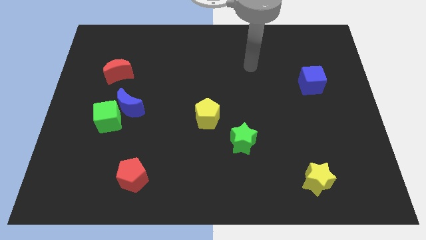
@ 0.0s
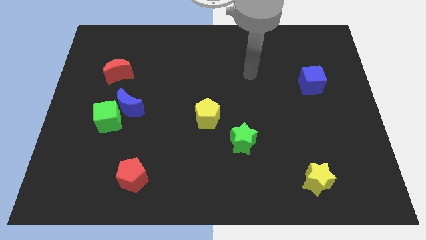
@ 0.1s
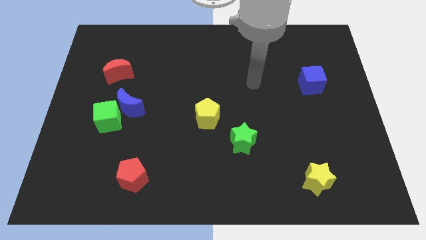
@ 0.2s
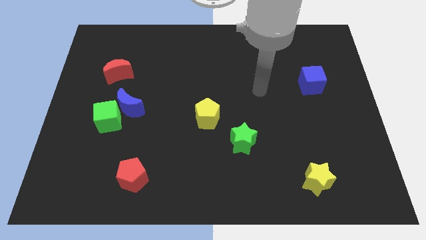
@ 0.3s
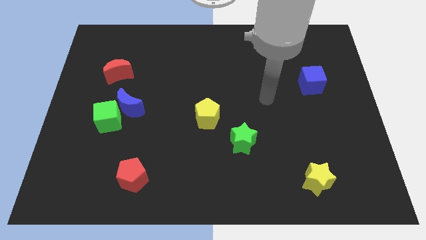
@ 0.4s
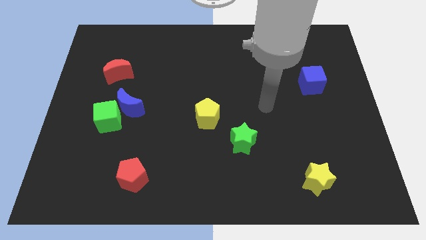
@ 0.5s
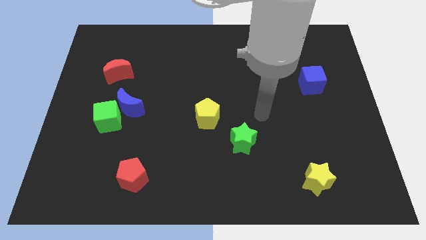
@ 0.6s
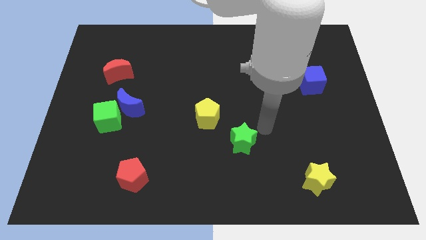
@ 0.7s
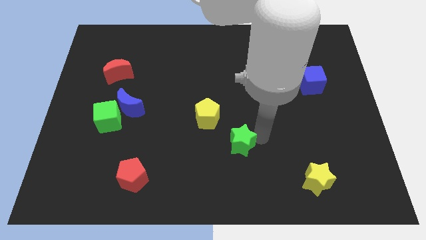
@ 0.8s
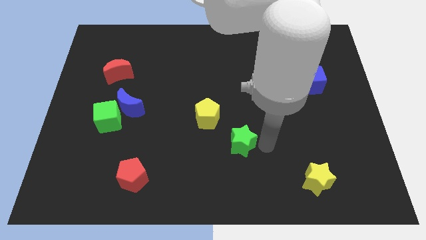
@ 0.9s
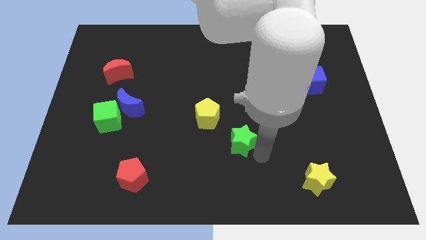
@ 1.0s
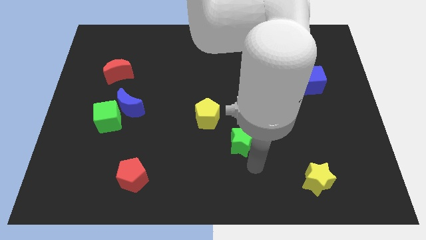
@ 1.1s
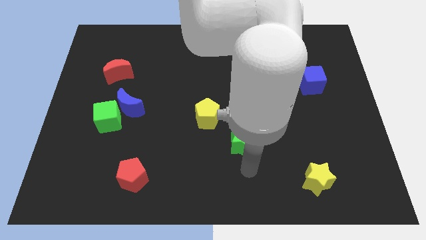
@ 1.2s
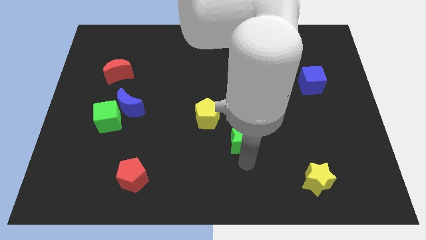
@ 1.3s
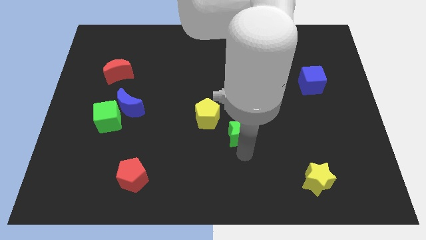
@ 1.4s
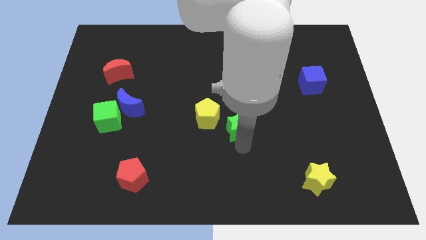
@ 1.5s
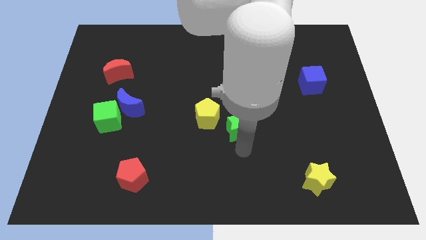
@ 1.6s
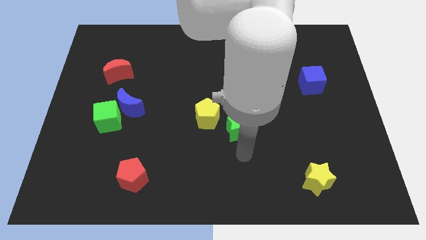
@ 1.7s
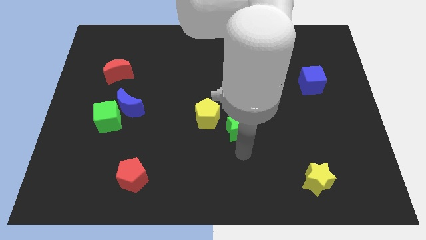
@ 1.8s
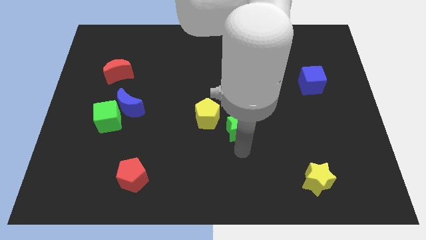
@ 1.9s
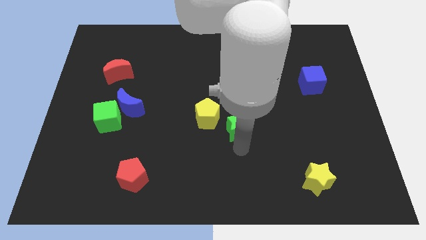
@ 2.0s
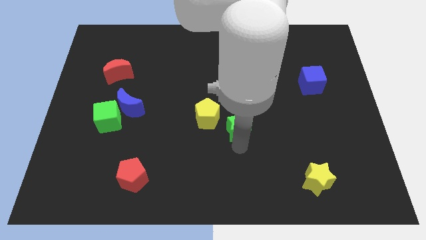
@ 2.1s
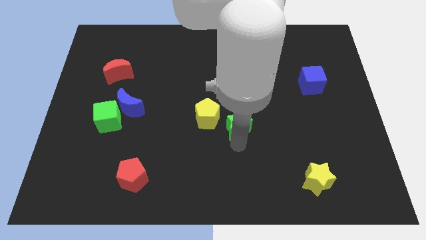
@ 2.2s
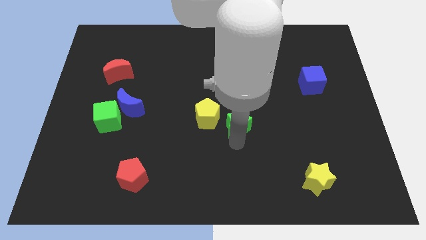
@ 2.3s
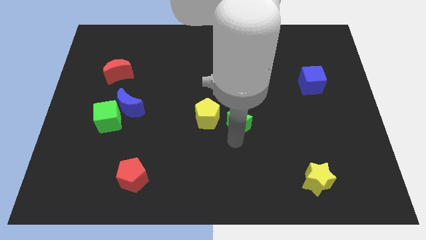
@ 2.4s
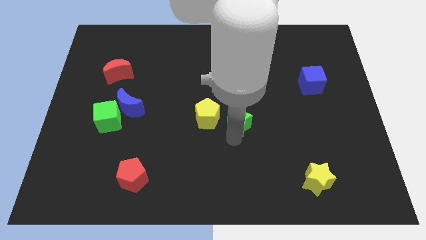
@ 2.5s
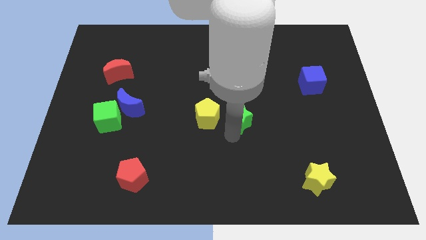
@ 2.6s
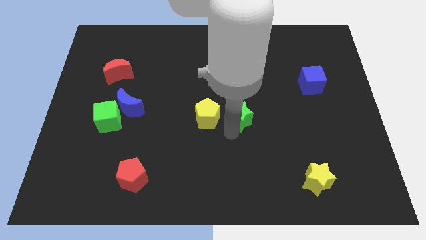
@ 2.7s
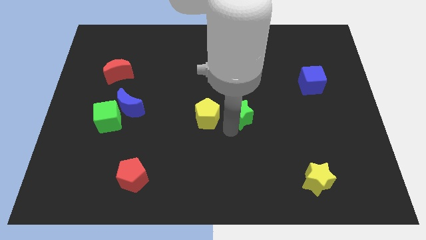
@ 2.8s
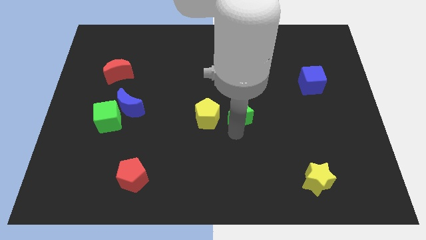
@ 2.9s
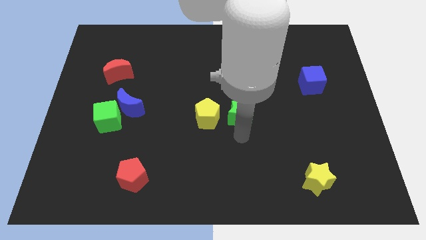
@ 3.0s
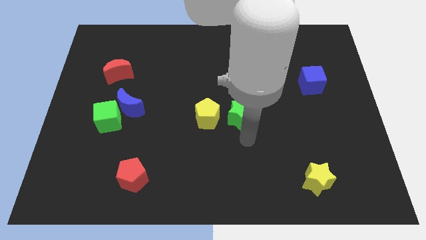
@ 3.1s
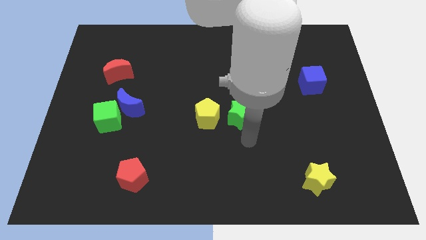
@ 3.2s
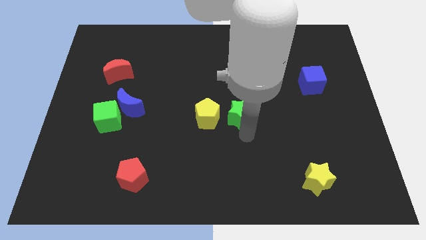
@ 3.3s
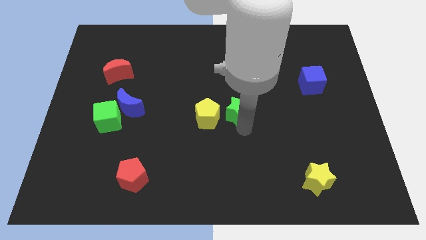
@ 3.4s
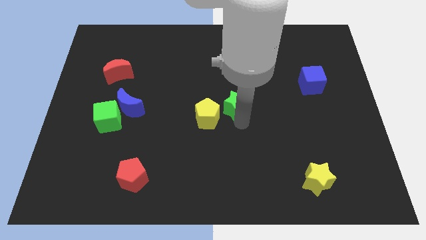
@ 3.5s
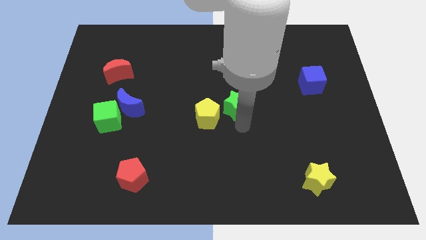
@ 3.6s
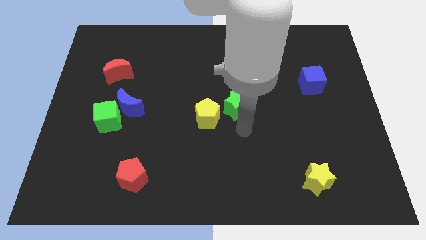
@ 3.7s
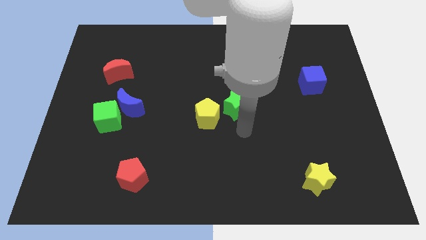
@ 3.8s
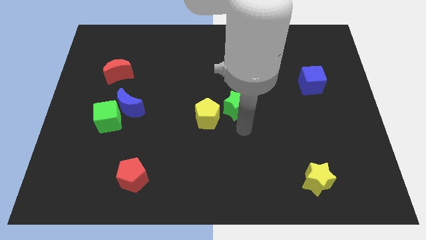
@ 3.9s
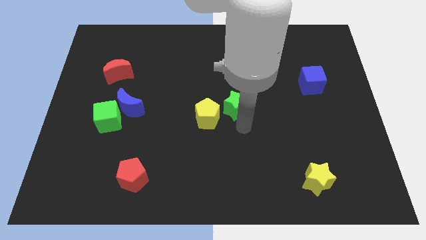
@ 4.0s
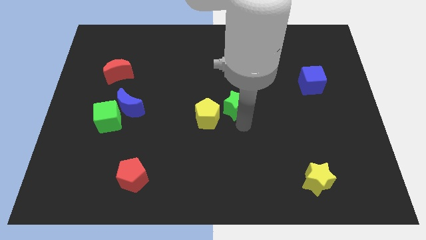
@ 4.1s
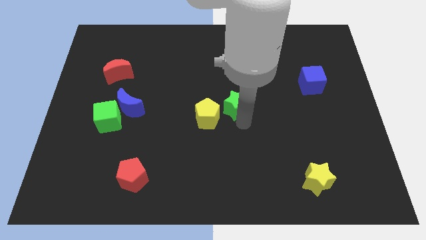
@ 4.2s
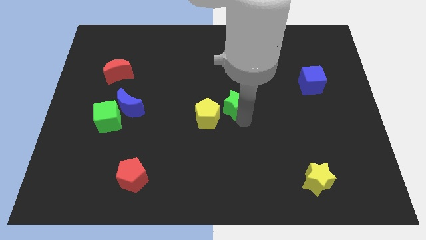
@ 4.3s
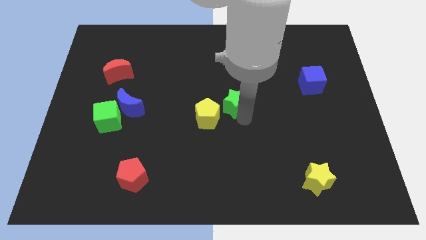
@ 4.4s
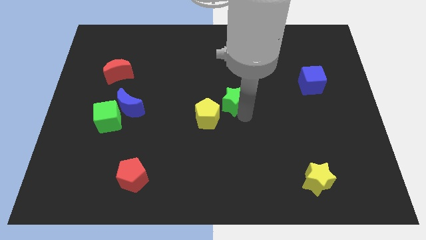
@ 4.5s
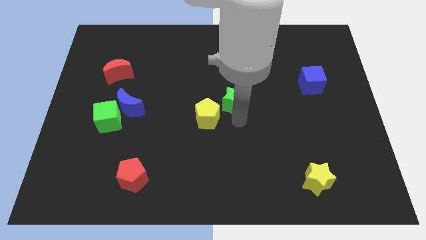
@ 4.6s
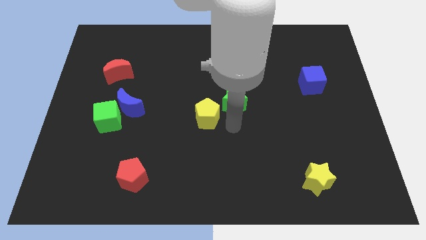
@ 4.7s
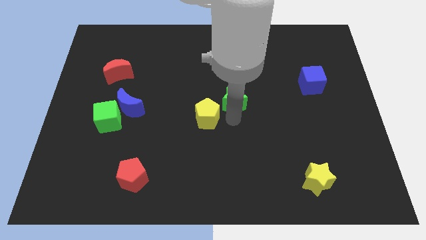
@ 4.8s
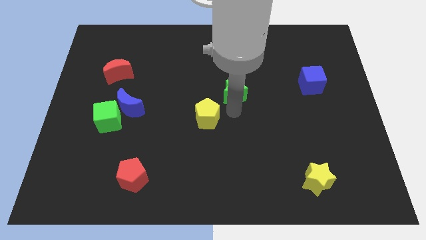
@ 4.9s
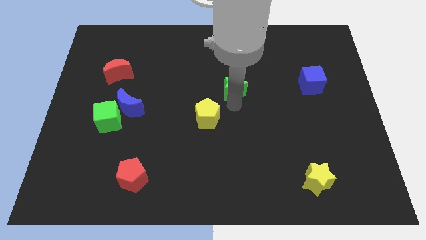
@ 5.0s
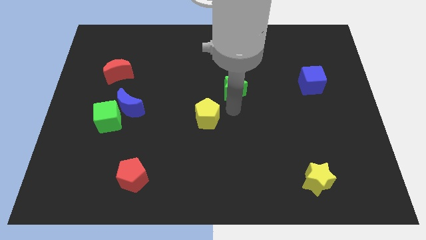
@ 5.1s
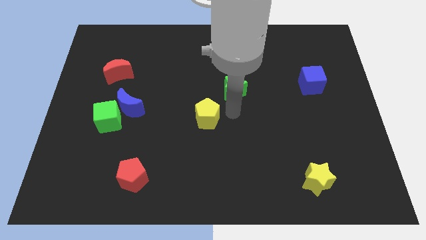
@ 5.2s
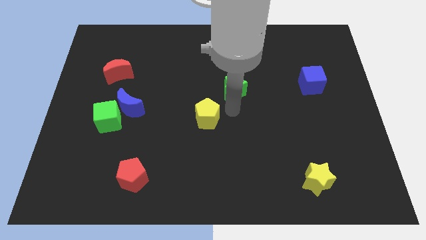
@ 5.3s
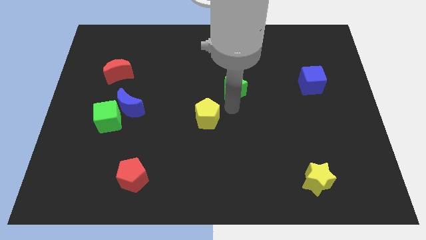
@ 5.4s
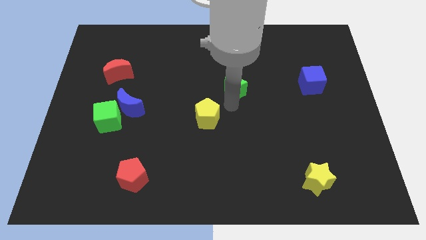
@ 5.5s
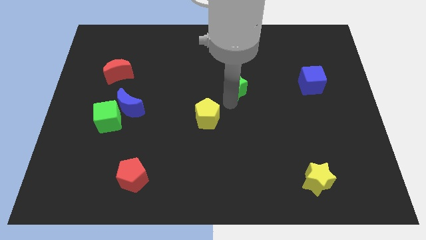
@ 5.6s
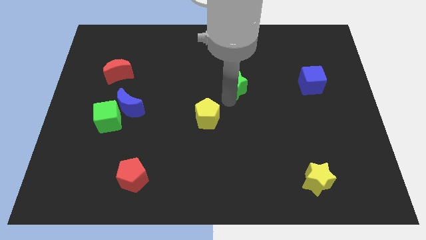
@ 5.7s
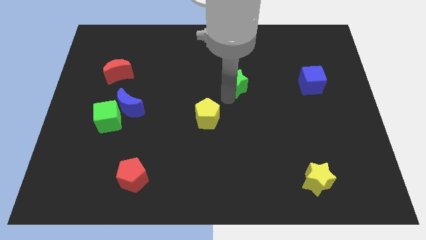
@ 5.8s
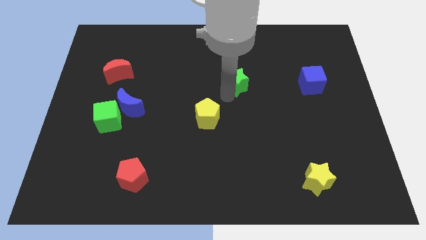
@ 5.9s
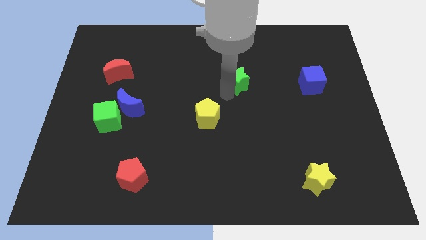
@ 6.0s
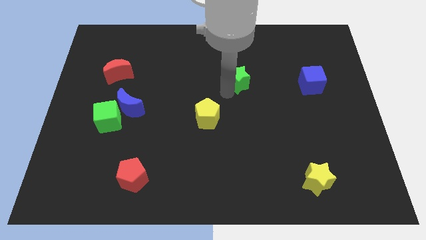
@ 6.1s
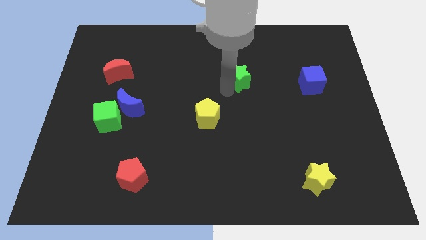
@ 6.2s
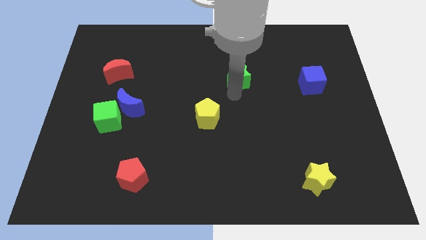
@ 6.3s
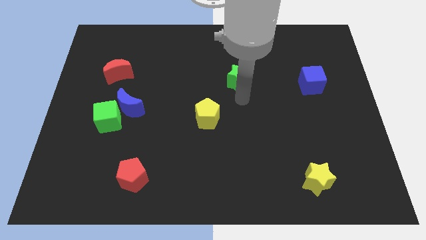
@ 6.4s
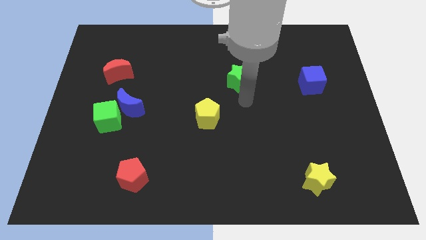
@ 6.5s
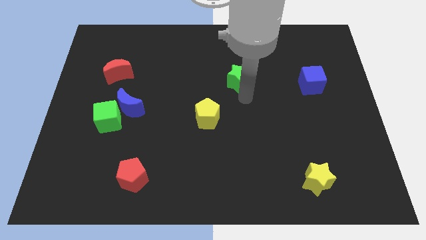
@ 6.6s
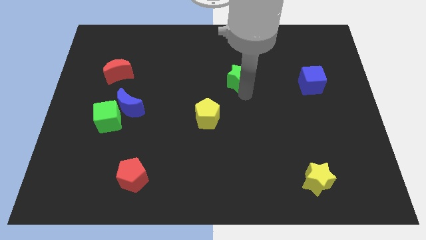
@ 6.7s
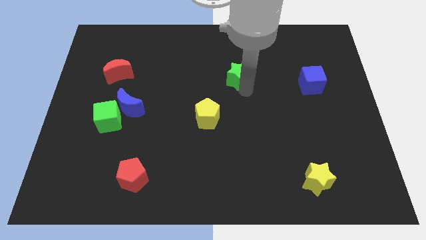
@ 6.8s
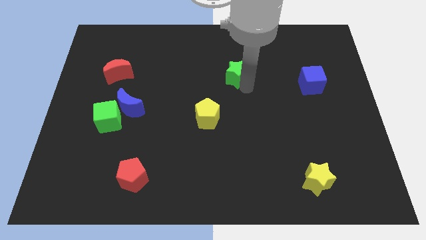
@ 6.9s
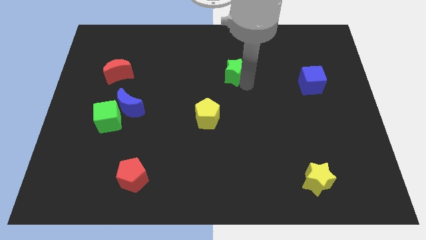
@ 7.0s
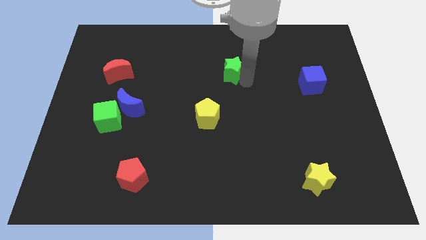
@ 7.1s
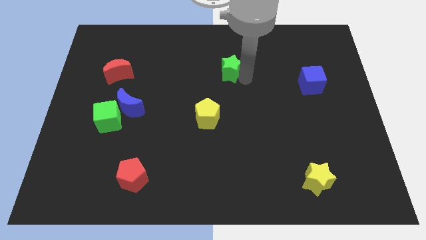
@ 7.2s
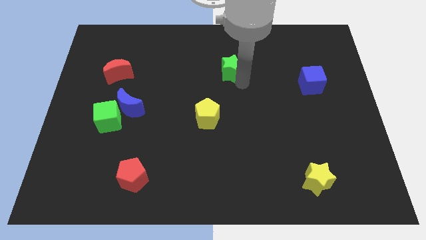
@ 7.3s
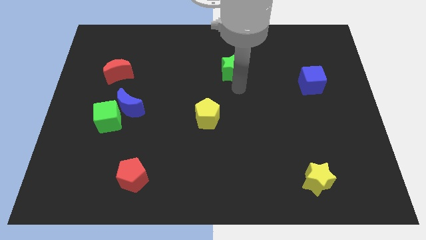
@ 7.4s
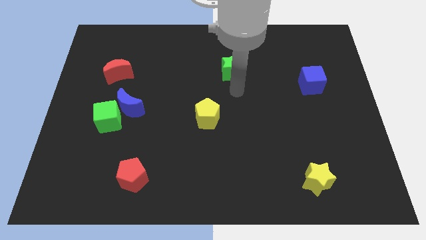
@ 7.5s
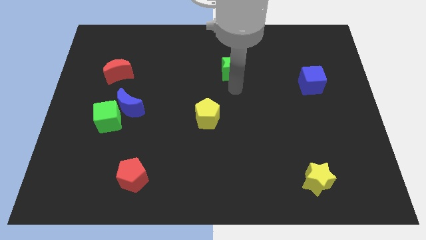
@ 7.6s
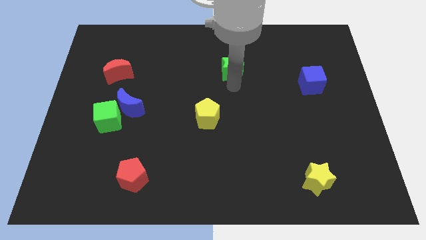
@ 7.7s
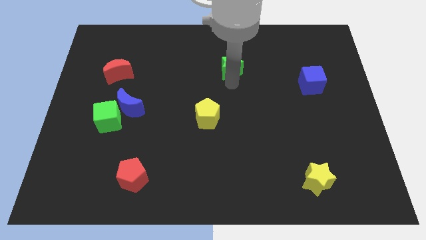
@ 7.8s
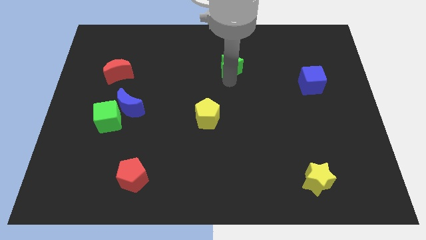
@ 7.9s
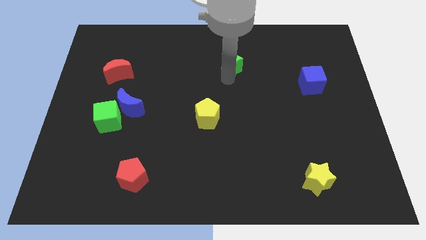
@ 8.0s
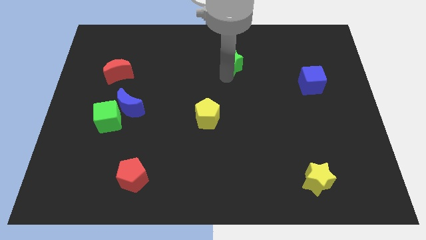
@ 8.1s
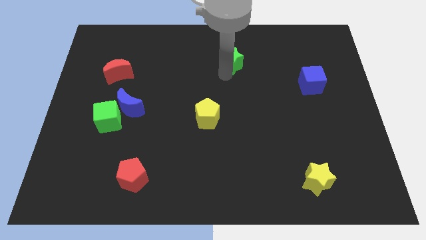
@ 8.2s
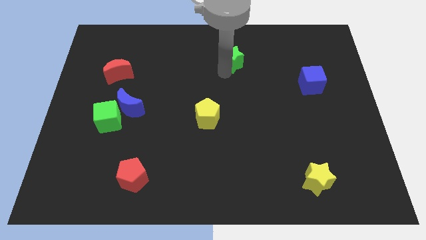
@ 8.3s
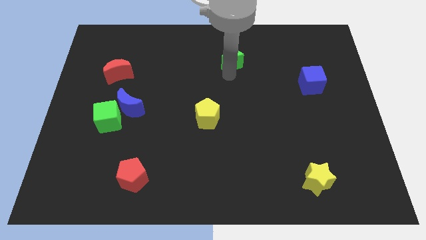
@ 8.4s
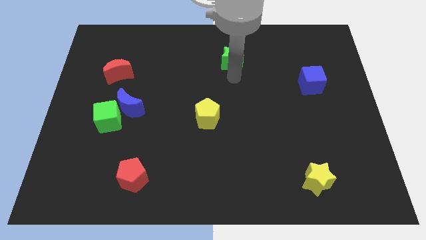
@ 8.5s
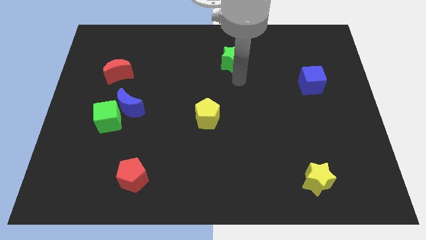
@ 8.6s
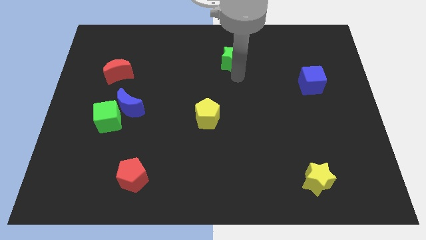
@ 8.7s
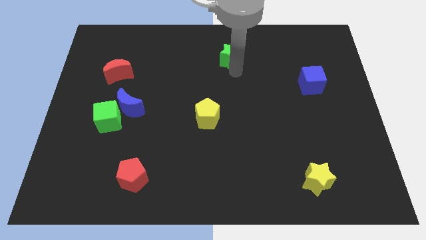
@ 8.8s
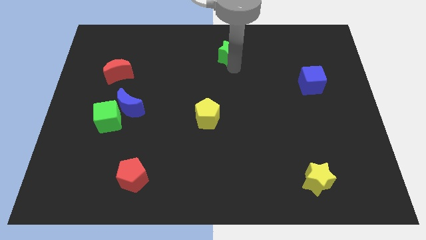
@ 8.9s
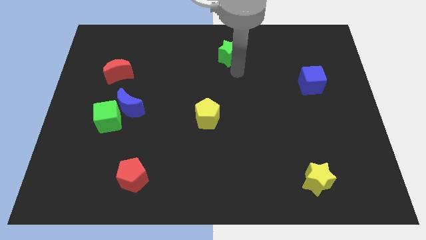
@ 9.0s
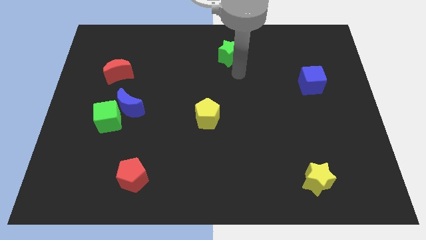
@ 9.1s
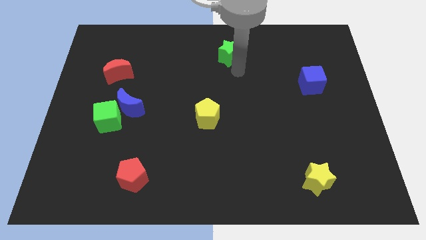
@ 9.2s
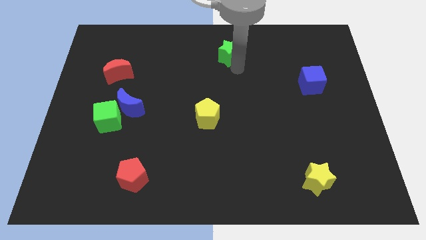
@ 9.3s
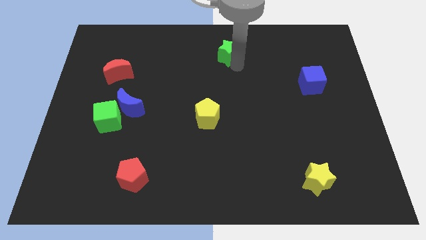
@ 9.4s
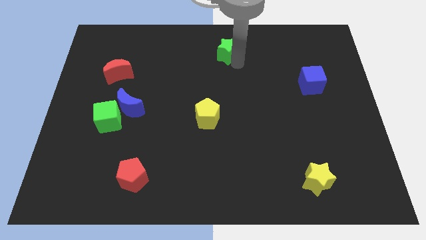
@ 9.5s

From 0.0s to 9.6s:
push the green star to the top
